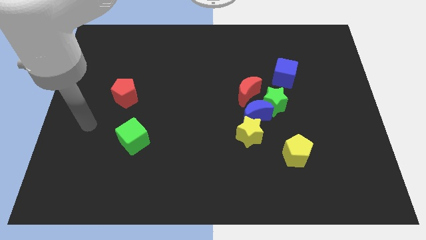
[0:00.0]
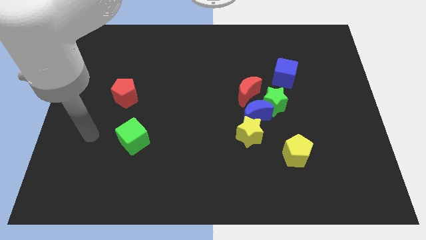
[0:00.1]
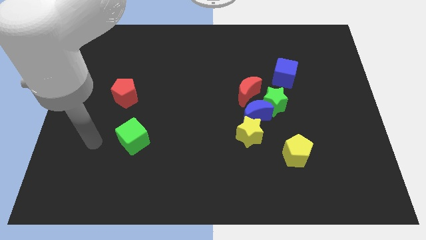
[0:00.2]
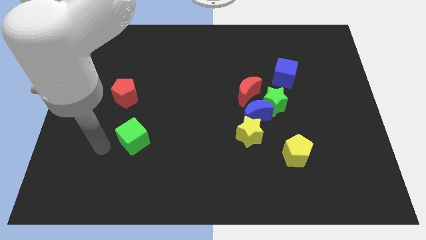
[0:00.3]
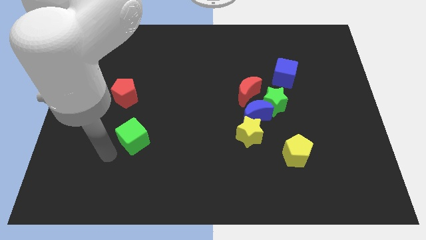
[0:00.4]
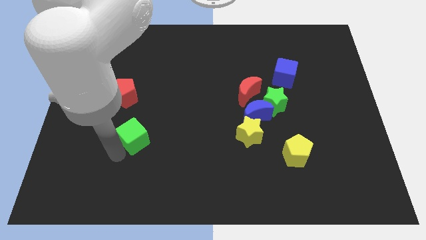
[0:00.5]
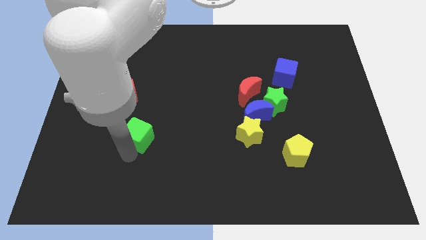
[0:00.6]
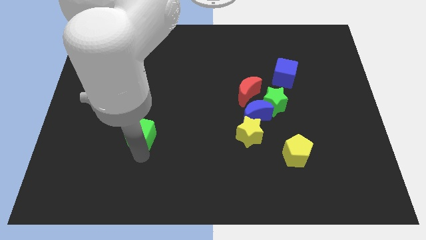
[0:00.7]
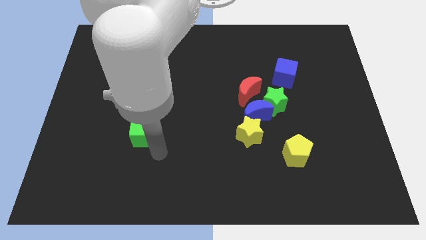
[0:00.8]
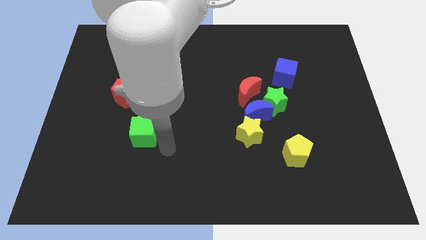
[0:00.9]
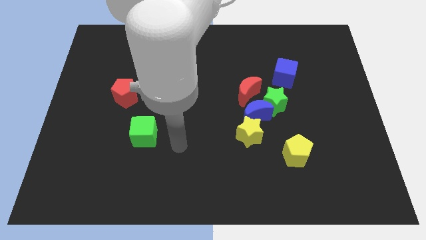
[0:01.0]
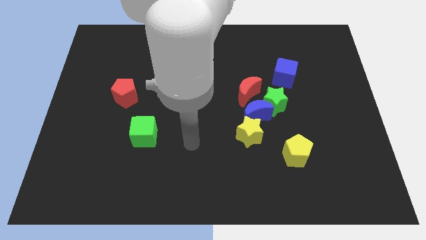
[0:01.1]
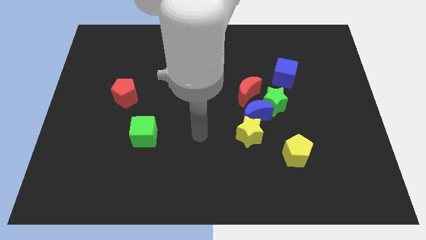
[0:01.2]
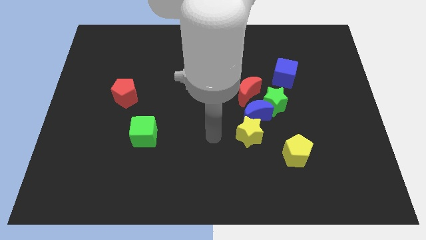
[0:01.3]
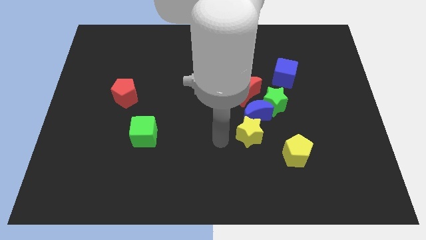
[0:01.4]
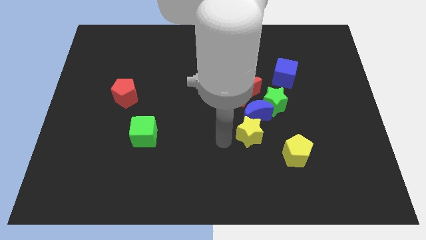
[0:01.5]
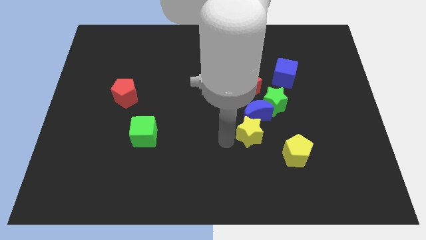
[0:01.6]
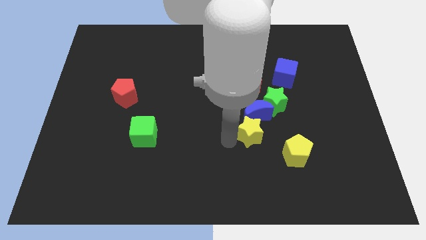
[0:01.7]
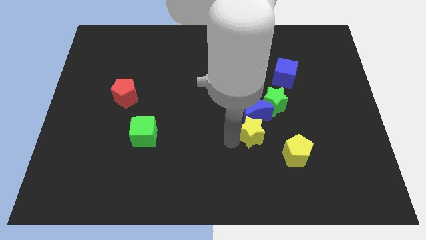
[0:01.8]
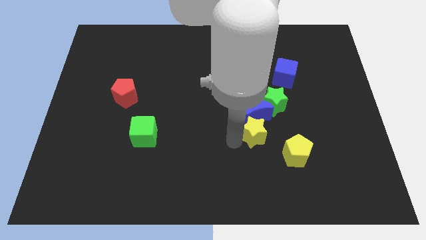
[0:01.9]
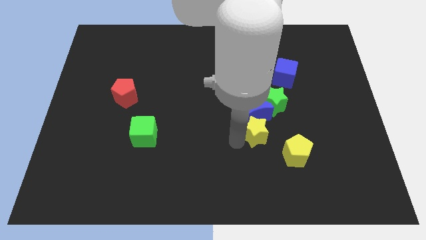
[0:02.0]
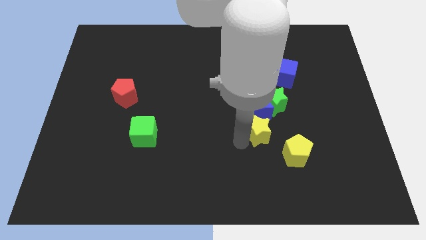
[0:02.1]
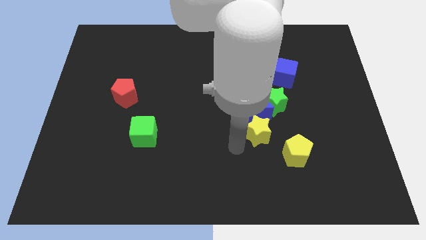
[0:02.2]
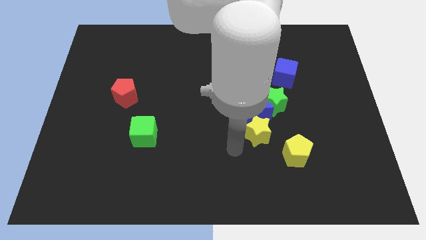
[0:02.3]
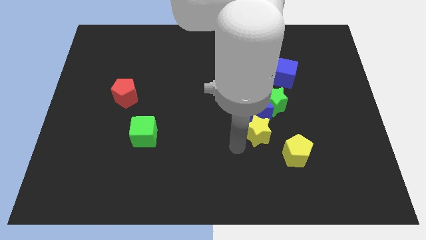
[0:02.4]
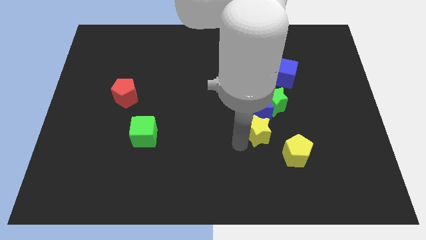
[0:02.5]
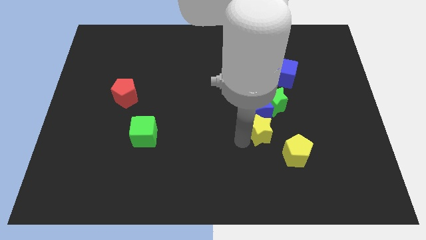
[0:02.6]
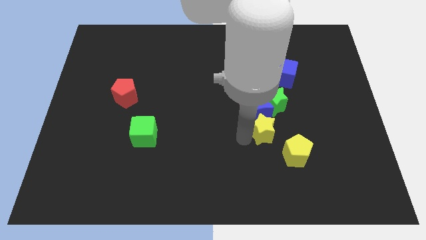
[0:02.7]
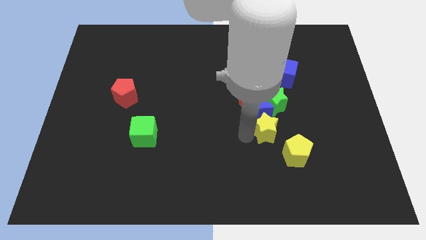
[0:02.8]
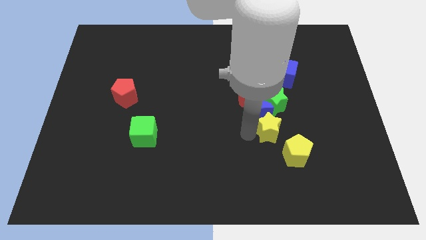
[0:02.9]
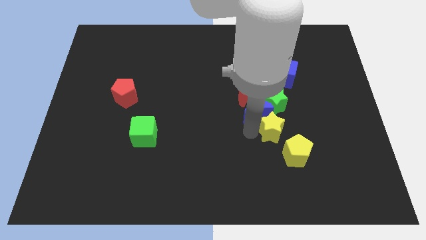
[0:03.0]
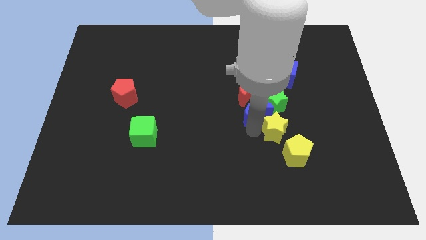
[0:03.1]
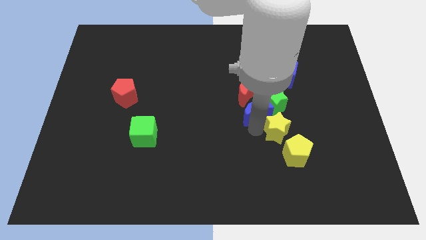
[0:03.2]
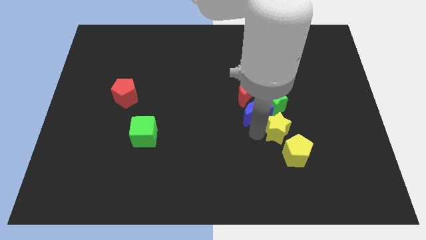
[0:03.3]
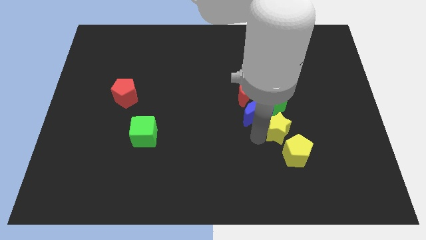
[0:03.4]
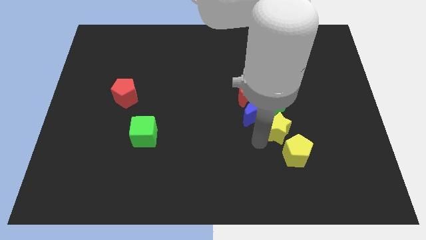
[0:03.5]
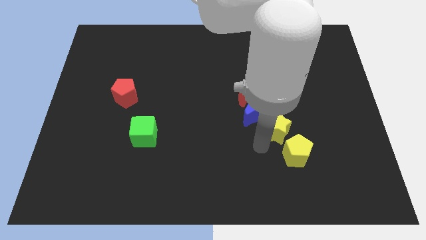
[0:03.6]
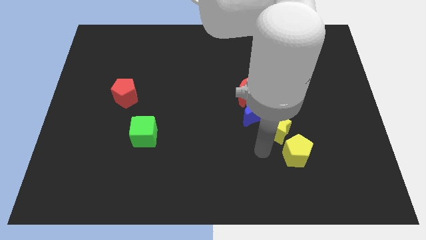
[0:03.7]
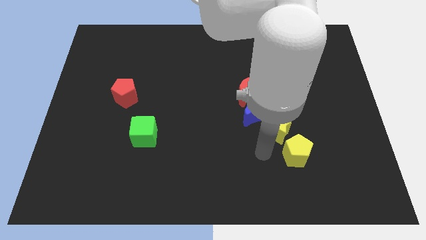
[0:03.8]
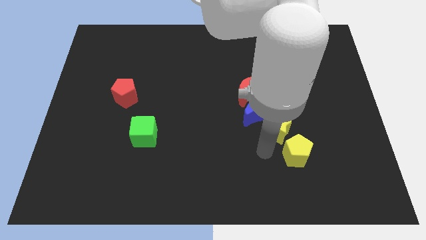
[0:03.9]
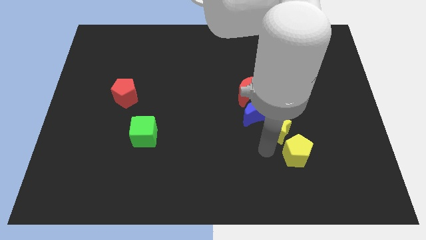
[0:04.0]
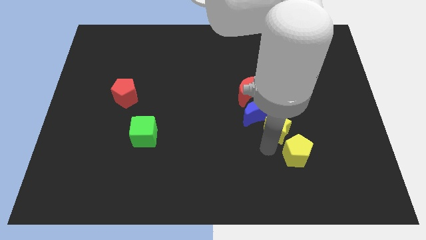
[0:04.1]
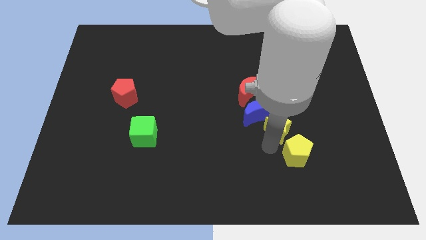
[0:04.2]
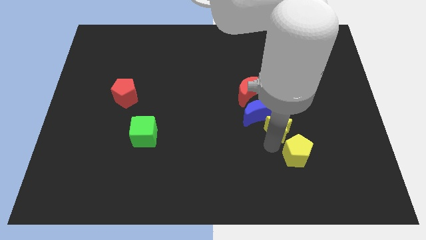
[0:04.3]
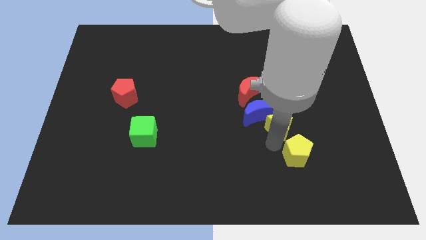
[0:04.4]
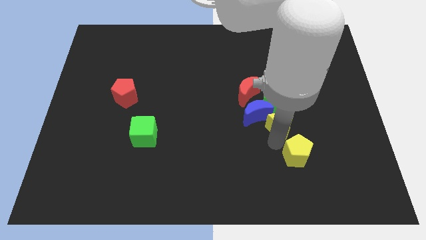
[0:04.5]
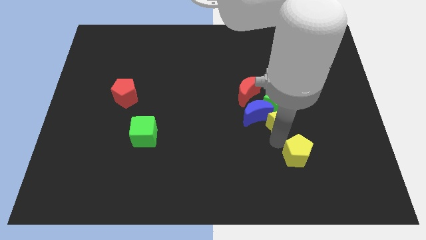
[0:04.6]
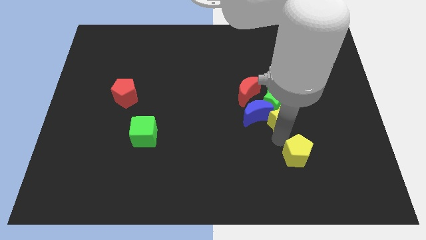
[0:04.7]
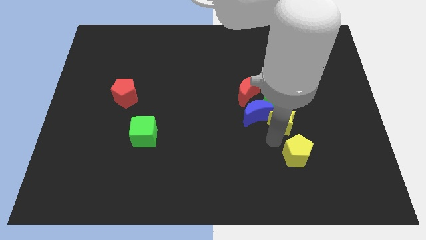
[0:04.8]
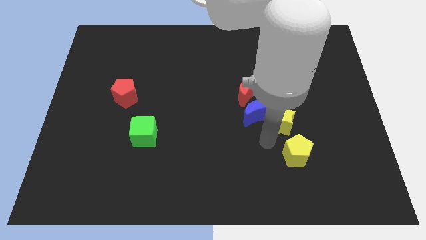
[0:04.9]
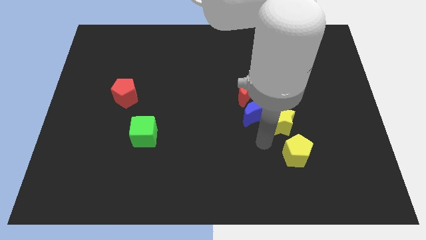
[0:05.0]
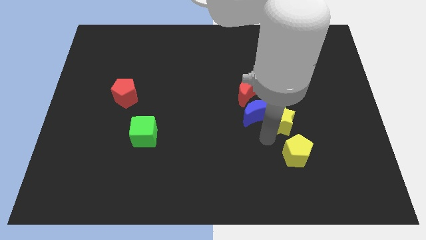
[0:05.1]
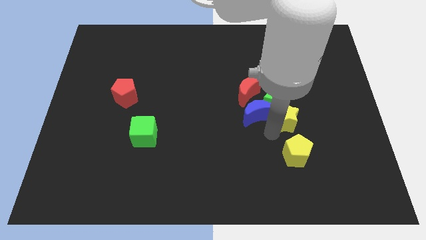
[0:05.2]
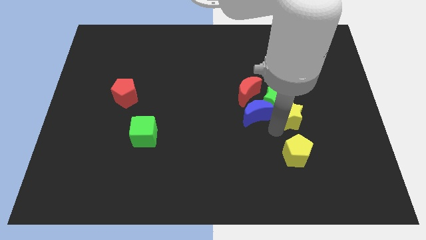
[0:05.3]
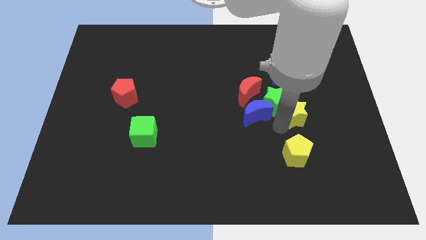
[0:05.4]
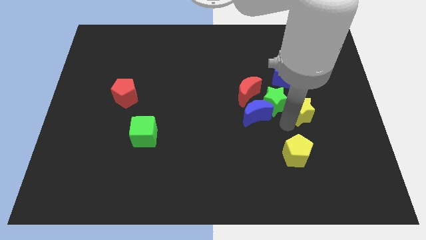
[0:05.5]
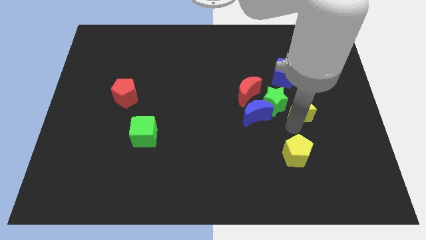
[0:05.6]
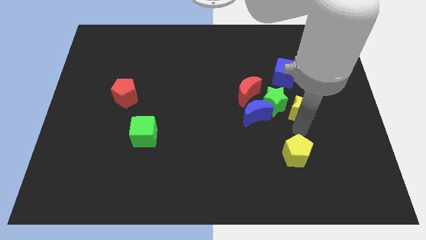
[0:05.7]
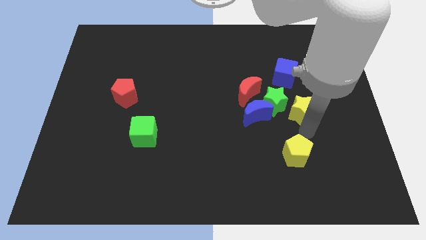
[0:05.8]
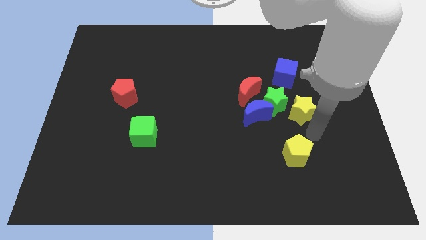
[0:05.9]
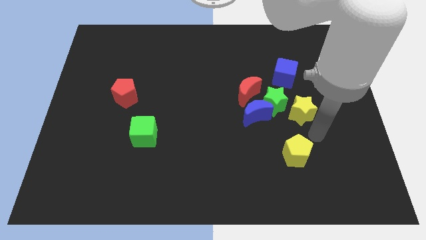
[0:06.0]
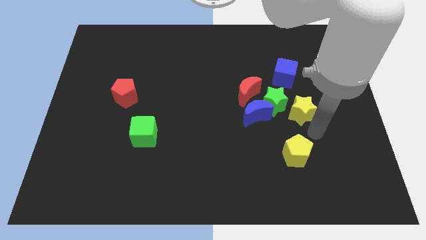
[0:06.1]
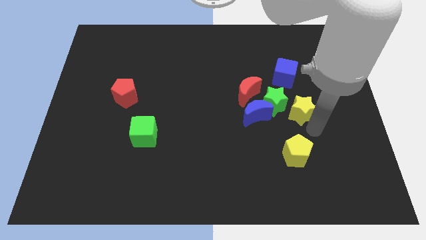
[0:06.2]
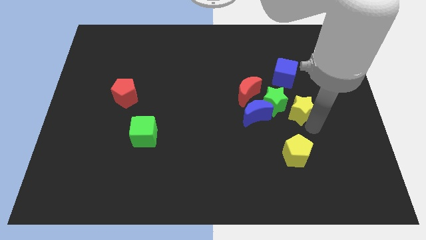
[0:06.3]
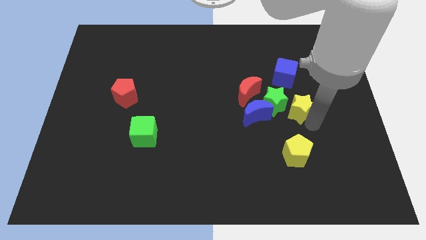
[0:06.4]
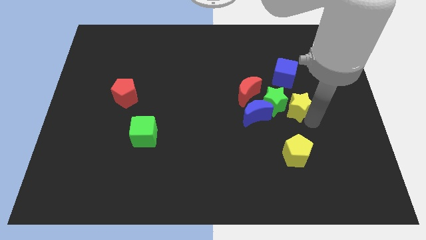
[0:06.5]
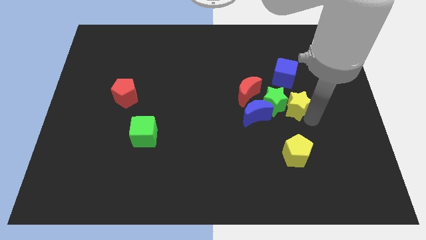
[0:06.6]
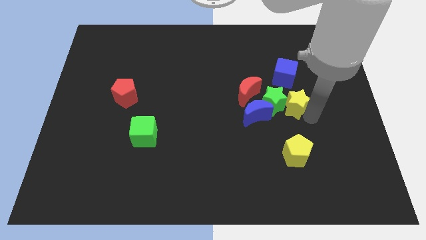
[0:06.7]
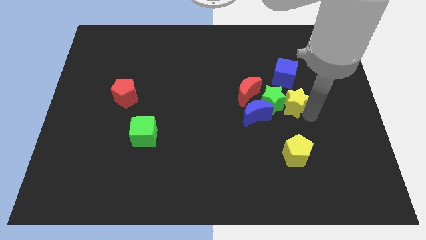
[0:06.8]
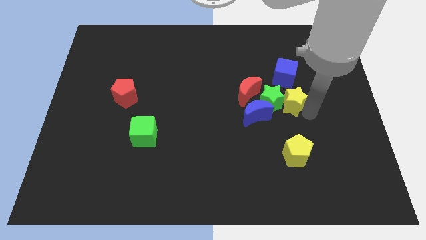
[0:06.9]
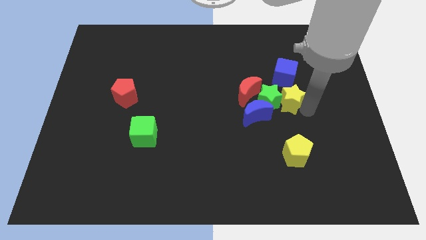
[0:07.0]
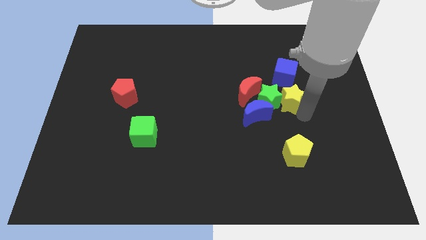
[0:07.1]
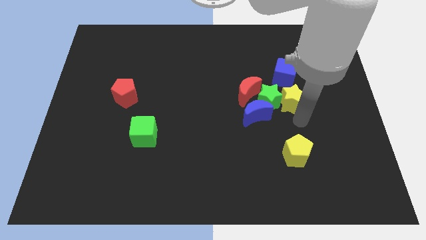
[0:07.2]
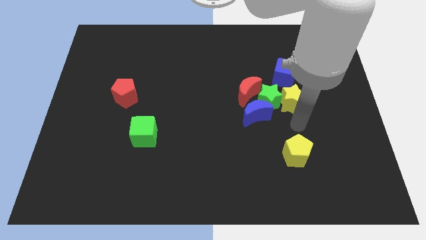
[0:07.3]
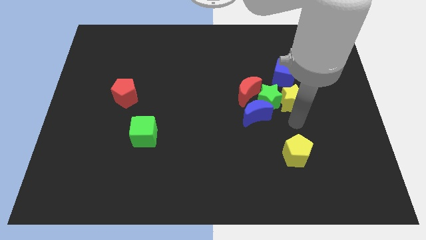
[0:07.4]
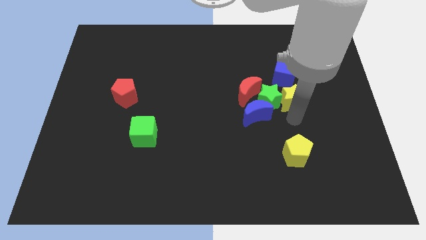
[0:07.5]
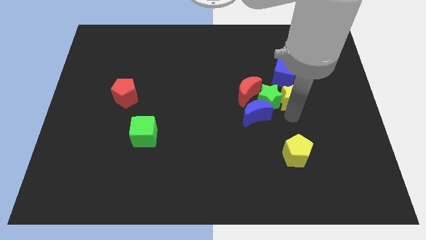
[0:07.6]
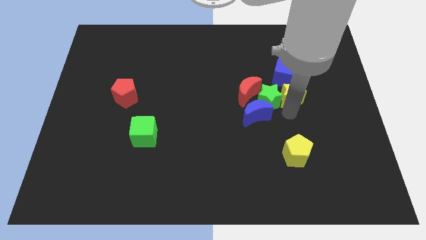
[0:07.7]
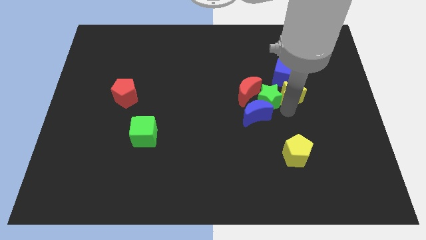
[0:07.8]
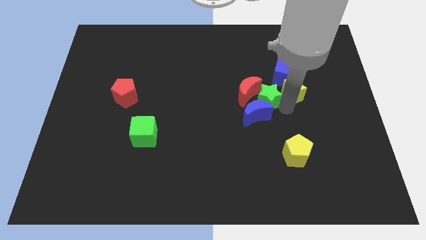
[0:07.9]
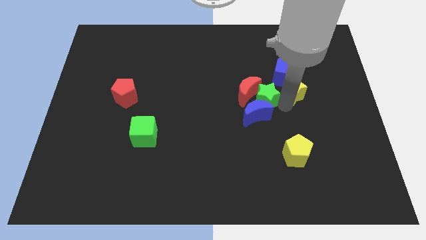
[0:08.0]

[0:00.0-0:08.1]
put the yellow star towards the blue cube
